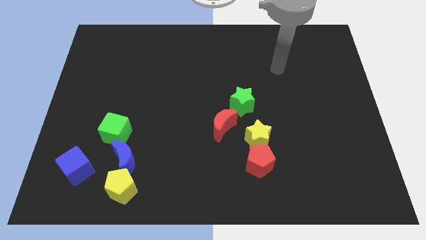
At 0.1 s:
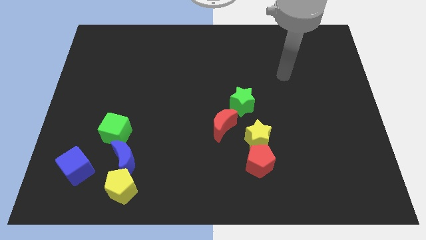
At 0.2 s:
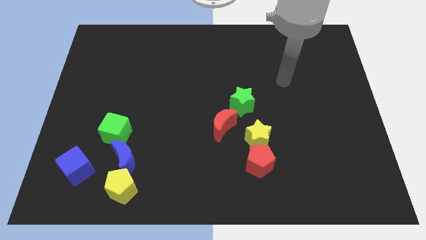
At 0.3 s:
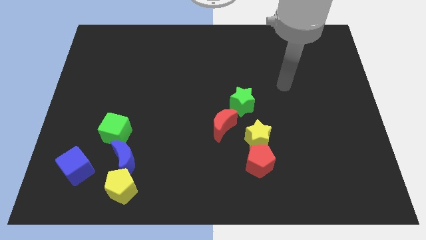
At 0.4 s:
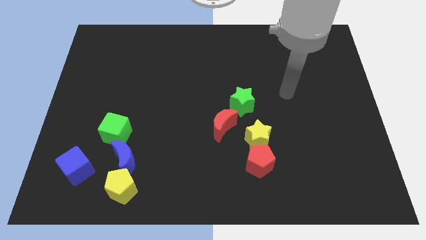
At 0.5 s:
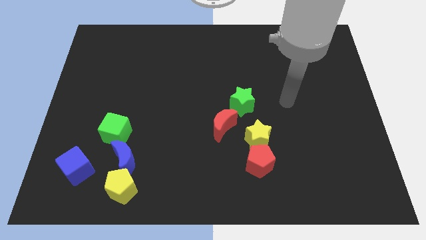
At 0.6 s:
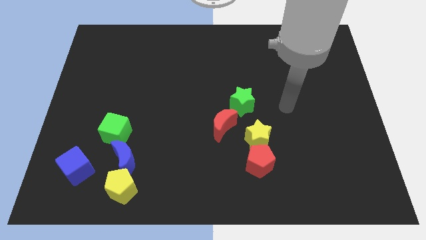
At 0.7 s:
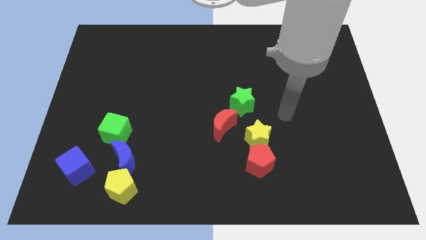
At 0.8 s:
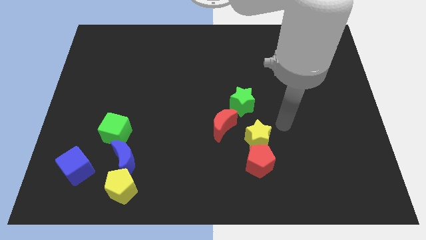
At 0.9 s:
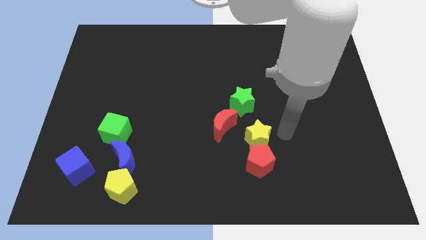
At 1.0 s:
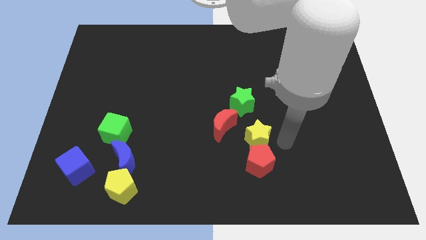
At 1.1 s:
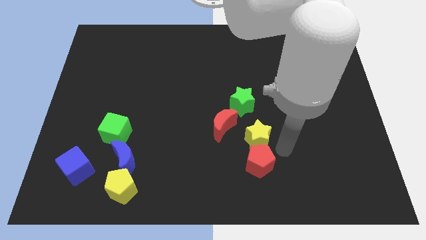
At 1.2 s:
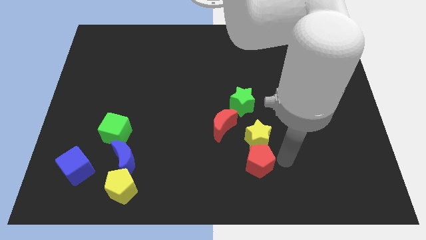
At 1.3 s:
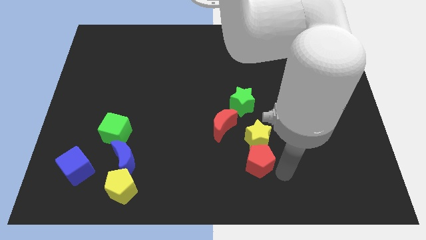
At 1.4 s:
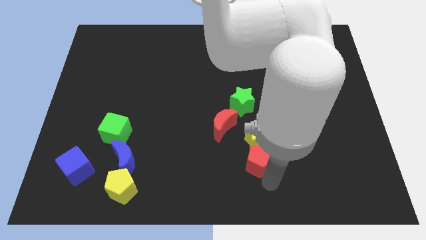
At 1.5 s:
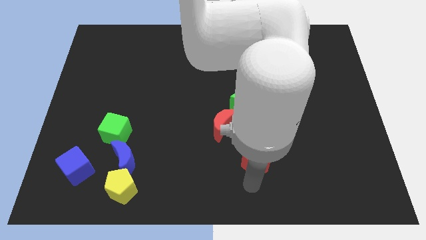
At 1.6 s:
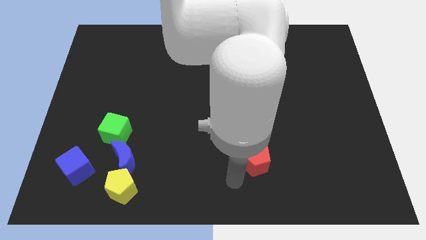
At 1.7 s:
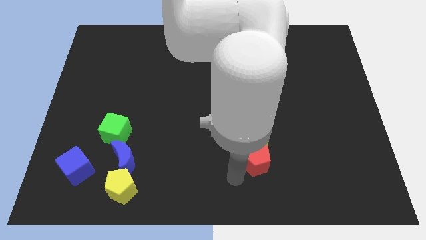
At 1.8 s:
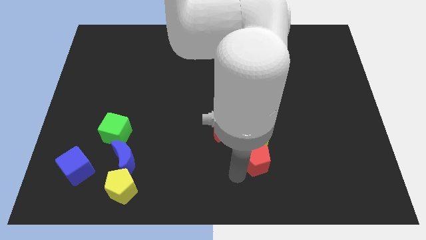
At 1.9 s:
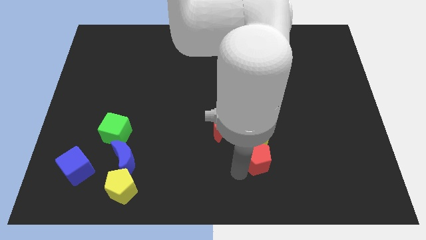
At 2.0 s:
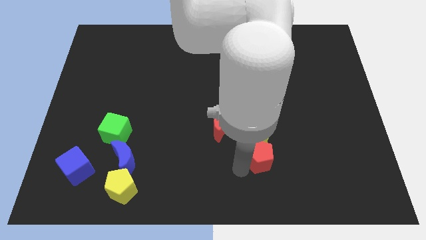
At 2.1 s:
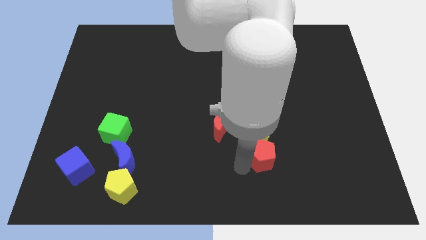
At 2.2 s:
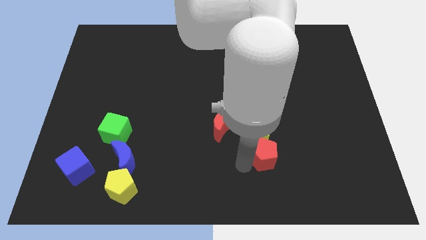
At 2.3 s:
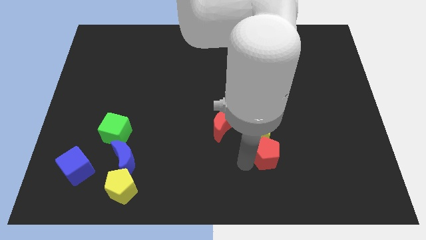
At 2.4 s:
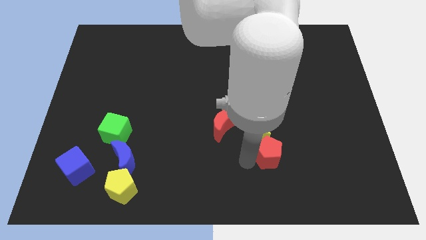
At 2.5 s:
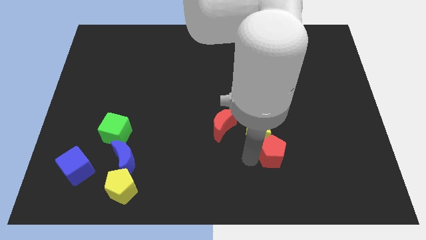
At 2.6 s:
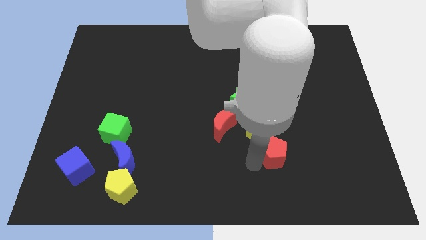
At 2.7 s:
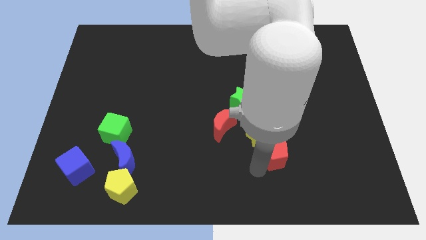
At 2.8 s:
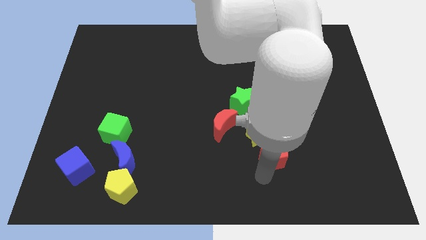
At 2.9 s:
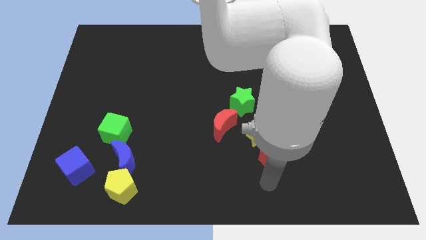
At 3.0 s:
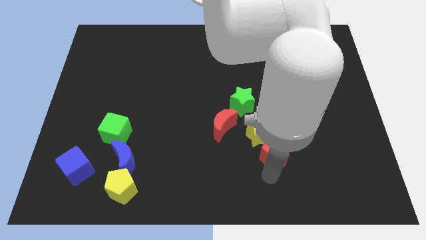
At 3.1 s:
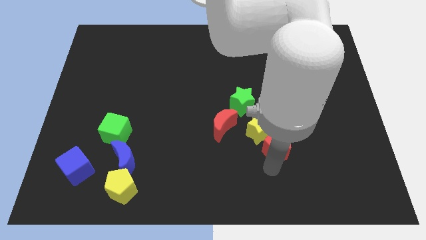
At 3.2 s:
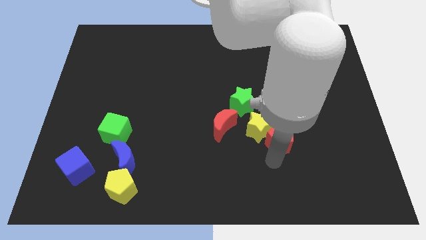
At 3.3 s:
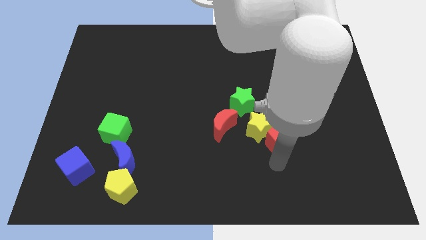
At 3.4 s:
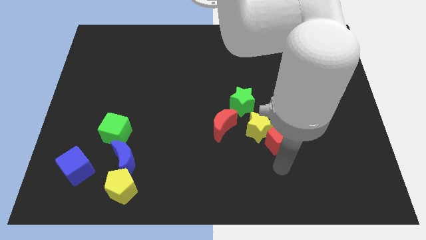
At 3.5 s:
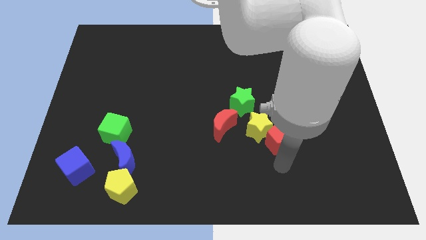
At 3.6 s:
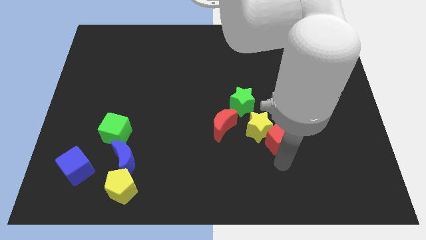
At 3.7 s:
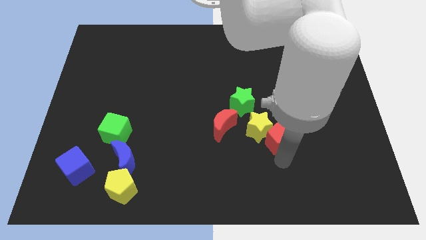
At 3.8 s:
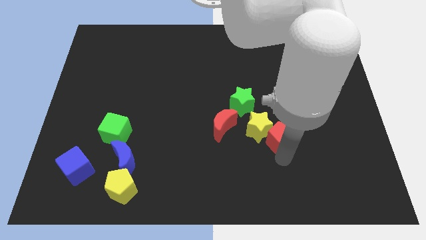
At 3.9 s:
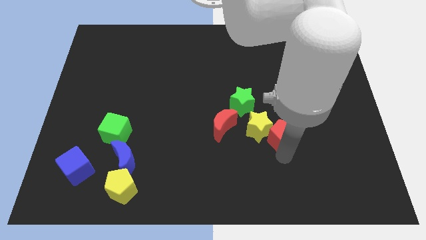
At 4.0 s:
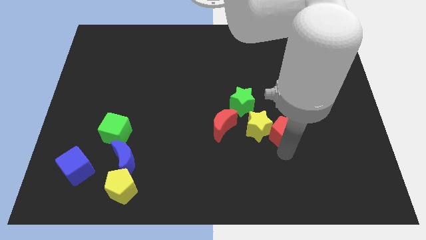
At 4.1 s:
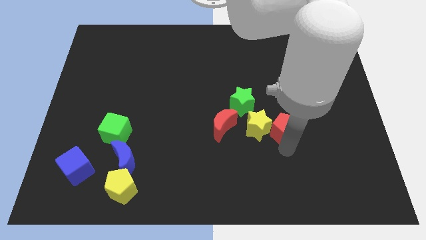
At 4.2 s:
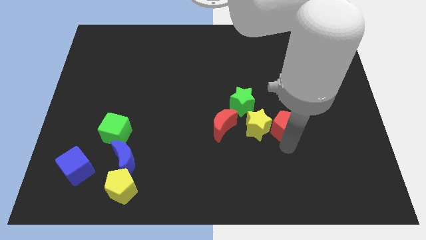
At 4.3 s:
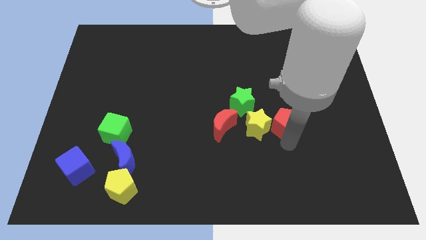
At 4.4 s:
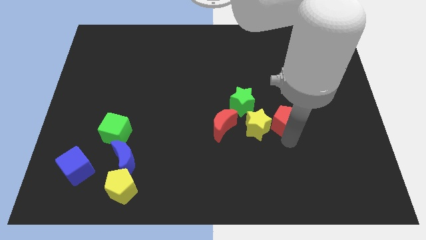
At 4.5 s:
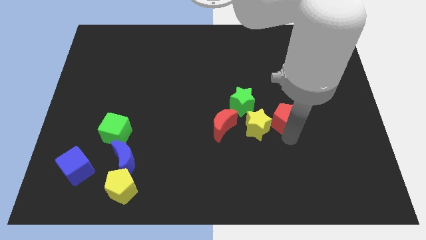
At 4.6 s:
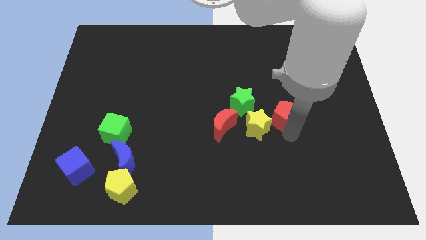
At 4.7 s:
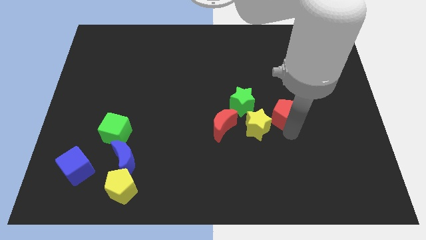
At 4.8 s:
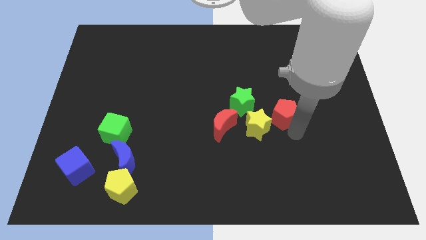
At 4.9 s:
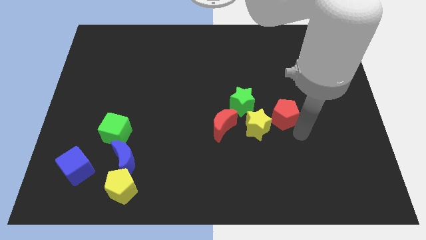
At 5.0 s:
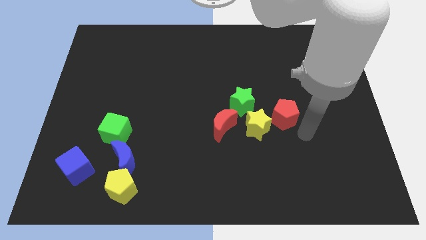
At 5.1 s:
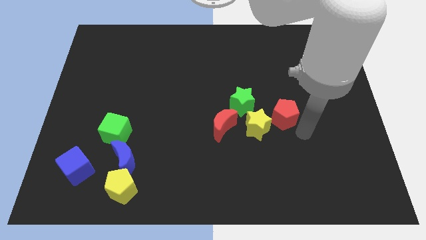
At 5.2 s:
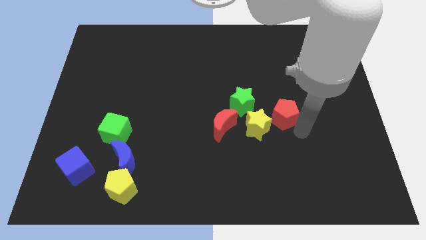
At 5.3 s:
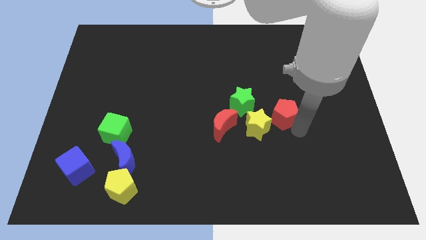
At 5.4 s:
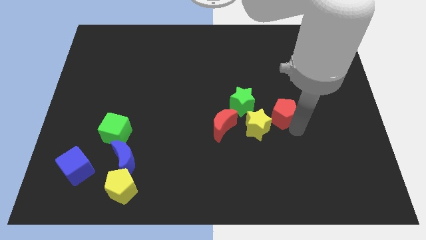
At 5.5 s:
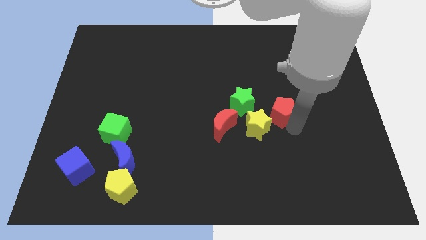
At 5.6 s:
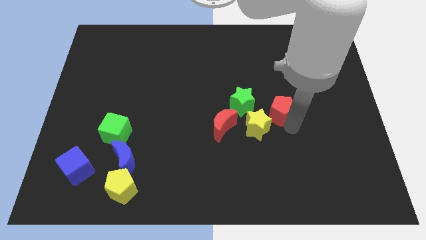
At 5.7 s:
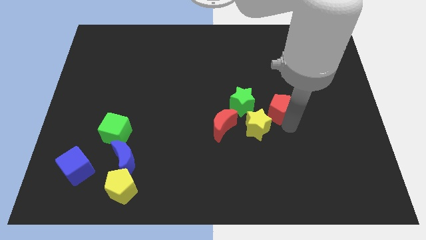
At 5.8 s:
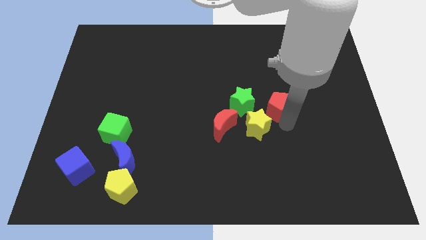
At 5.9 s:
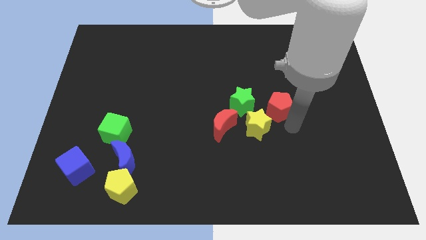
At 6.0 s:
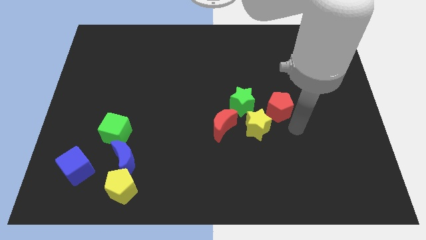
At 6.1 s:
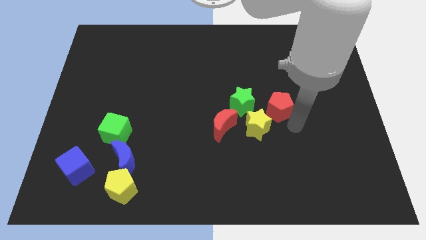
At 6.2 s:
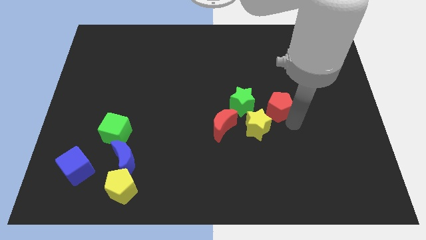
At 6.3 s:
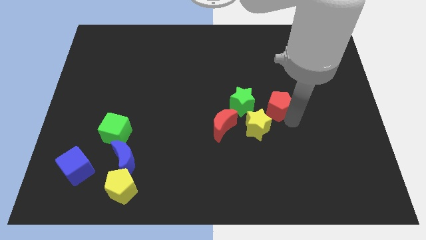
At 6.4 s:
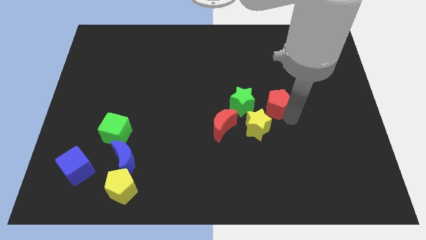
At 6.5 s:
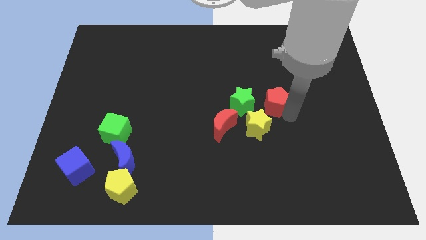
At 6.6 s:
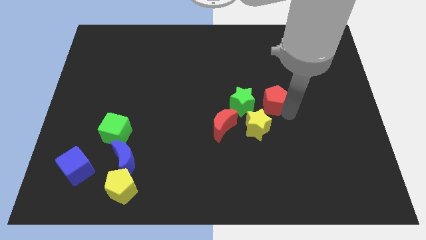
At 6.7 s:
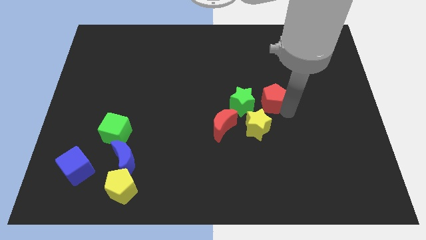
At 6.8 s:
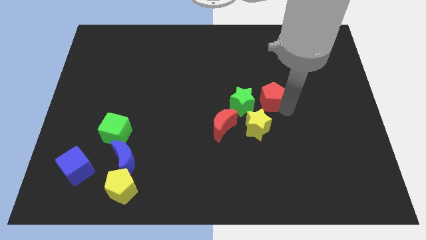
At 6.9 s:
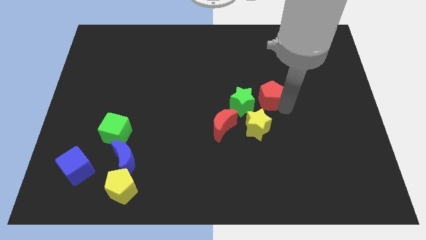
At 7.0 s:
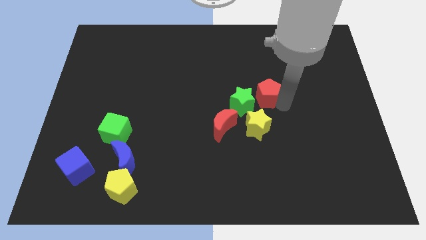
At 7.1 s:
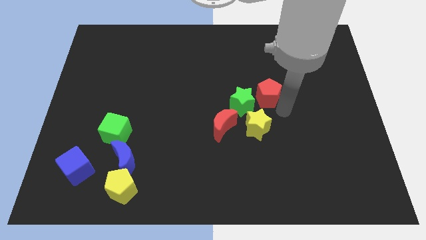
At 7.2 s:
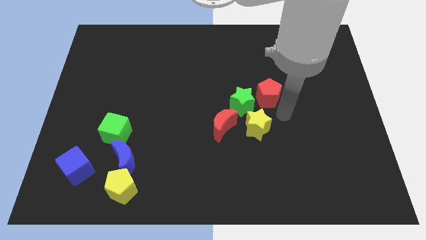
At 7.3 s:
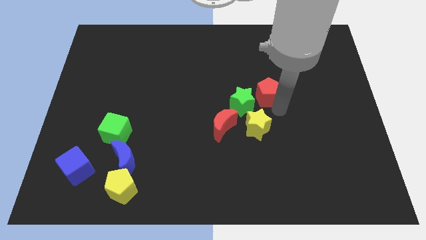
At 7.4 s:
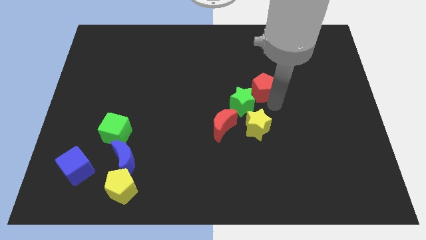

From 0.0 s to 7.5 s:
slide the red pentagon upwards

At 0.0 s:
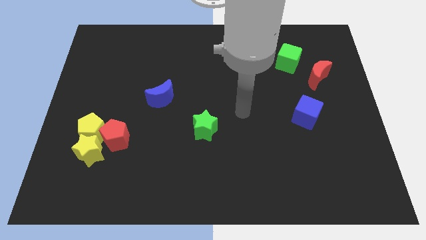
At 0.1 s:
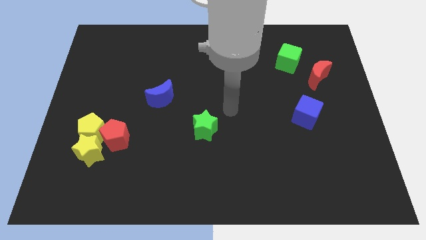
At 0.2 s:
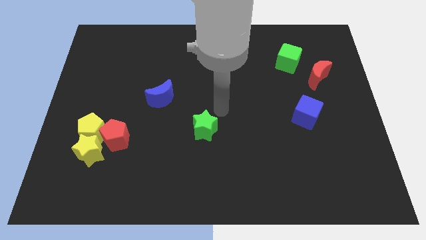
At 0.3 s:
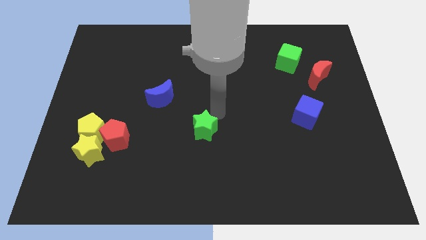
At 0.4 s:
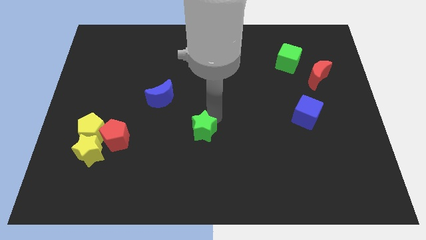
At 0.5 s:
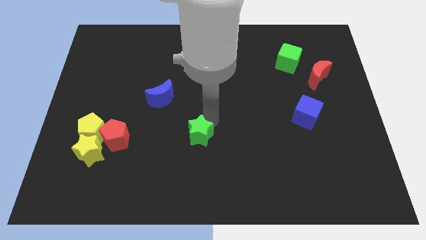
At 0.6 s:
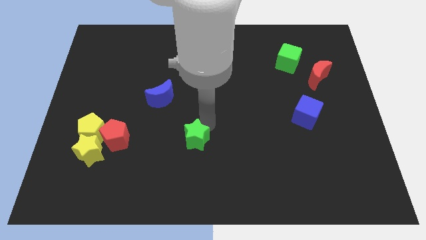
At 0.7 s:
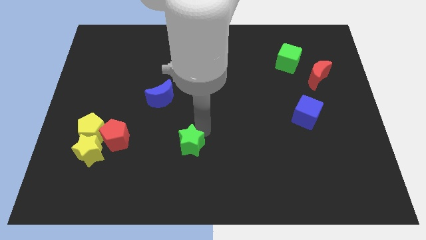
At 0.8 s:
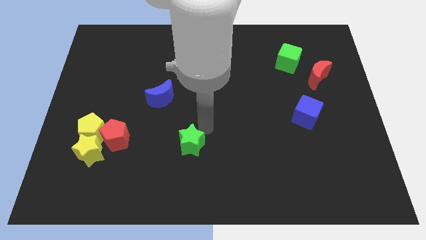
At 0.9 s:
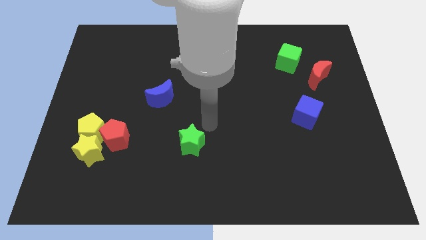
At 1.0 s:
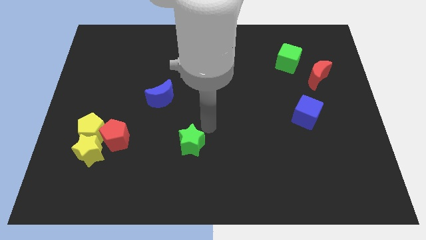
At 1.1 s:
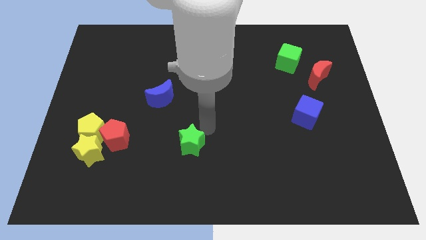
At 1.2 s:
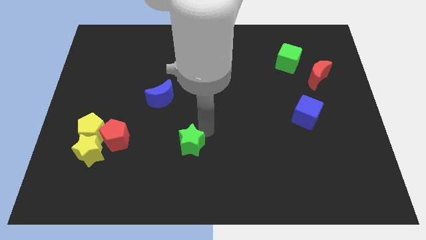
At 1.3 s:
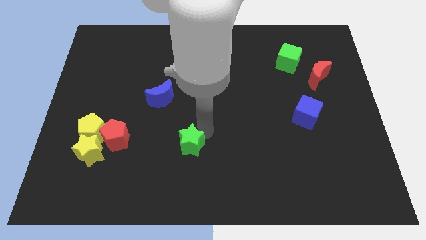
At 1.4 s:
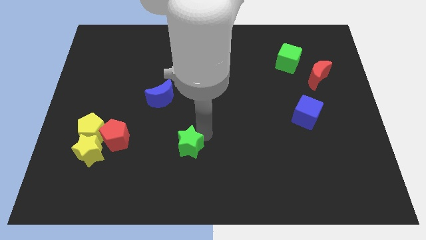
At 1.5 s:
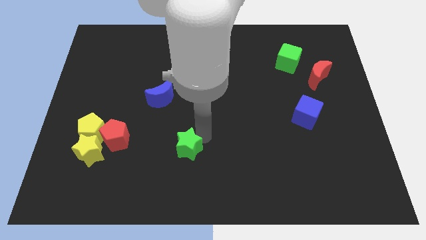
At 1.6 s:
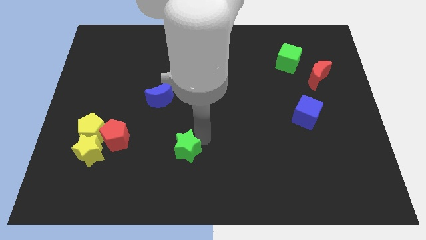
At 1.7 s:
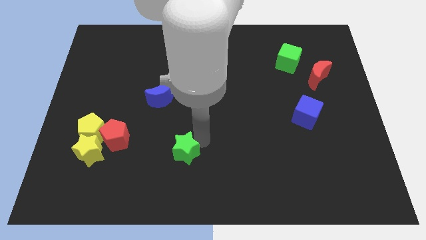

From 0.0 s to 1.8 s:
slightly push the green star downwards and to the left
